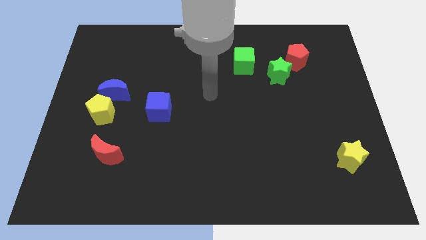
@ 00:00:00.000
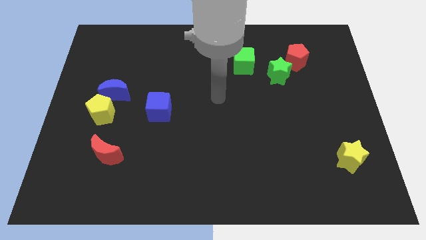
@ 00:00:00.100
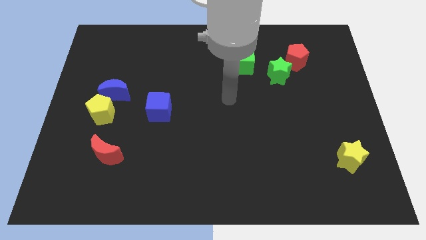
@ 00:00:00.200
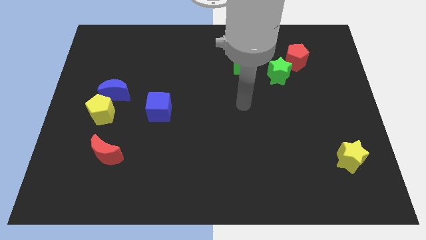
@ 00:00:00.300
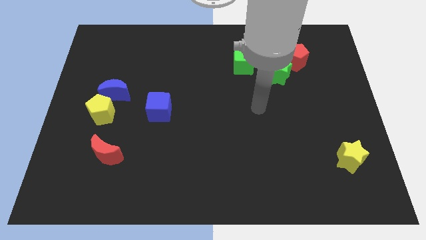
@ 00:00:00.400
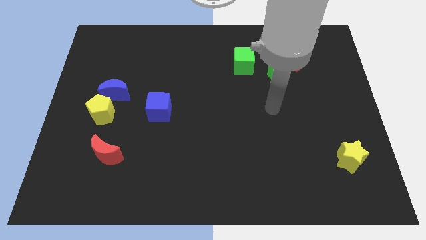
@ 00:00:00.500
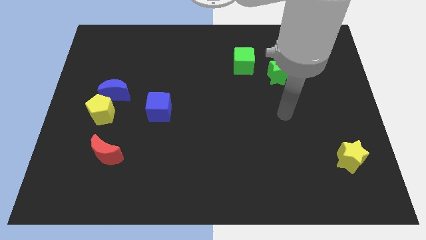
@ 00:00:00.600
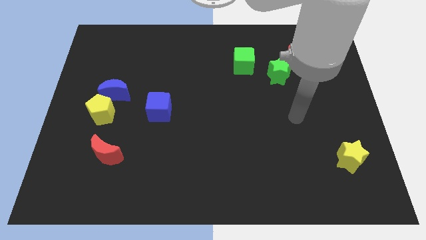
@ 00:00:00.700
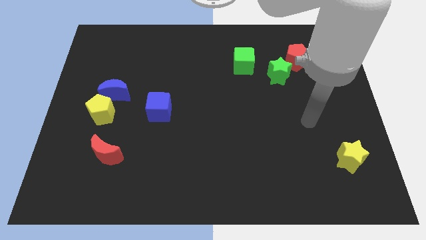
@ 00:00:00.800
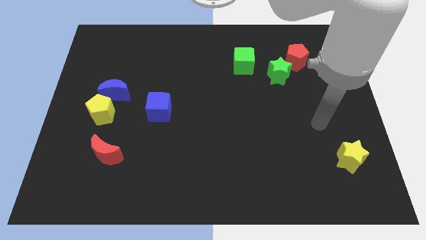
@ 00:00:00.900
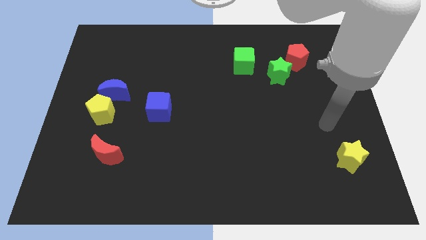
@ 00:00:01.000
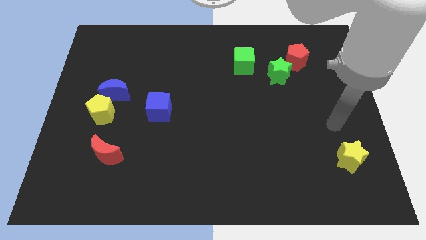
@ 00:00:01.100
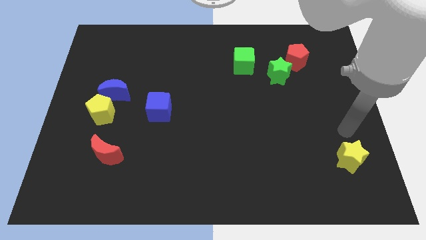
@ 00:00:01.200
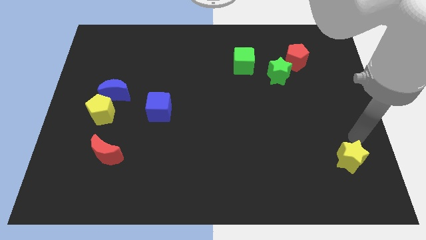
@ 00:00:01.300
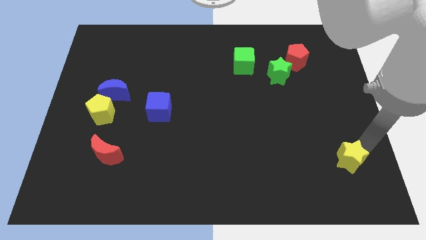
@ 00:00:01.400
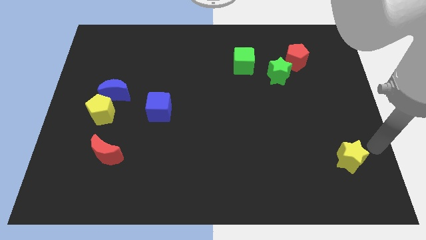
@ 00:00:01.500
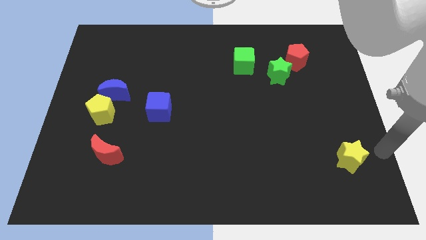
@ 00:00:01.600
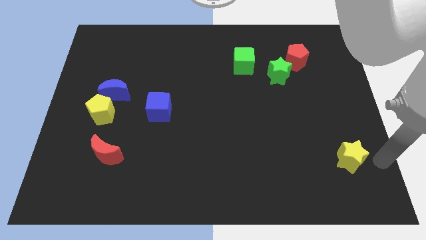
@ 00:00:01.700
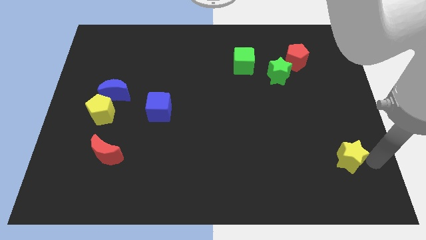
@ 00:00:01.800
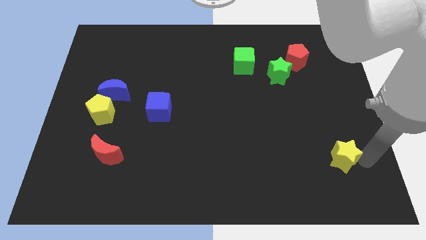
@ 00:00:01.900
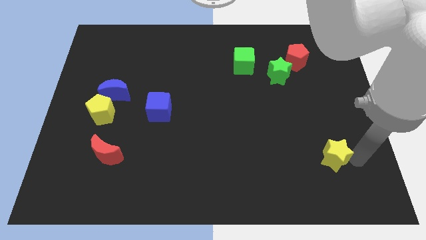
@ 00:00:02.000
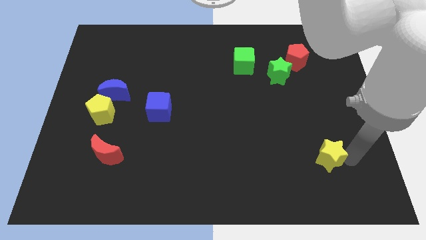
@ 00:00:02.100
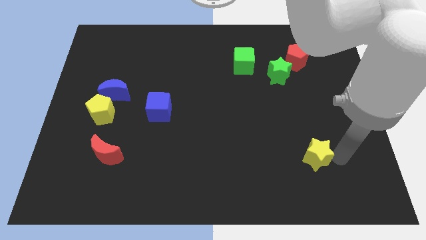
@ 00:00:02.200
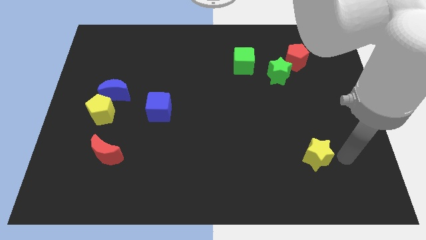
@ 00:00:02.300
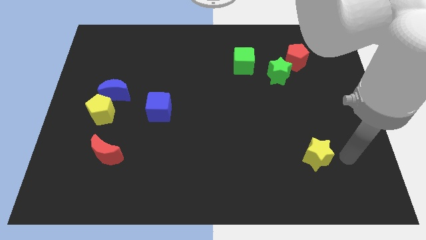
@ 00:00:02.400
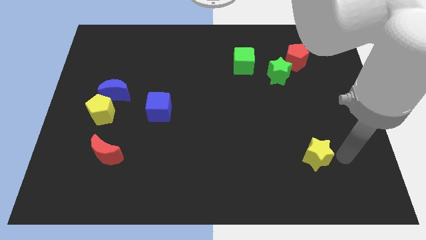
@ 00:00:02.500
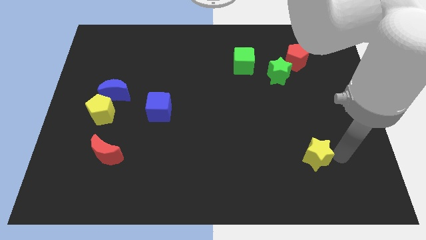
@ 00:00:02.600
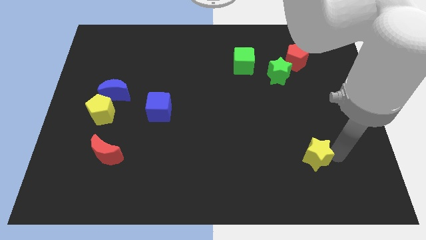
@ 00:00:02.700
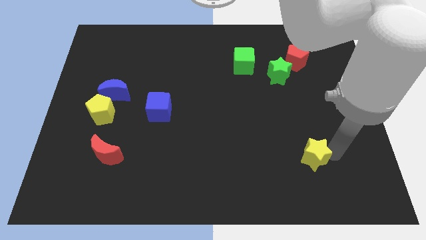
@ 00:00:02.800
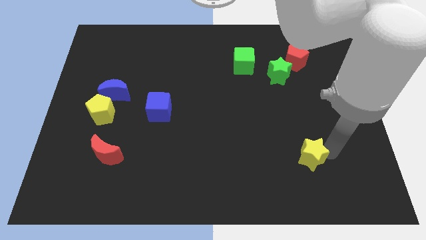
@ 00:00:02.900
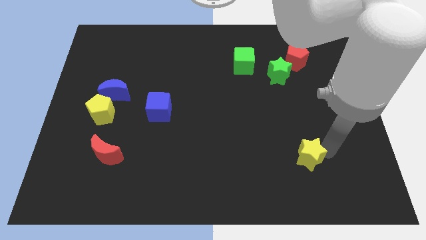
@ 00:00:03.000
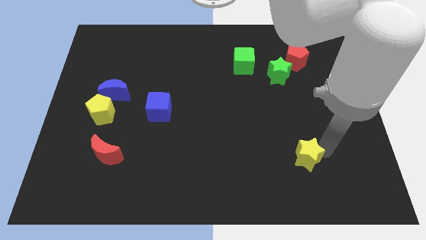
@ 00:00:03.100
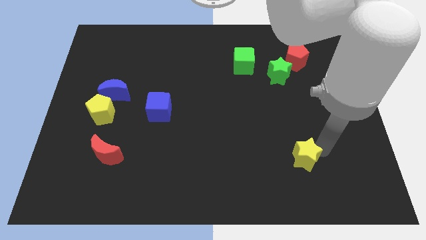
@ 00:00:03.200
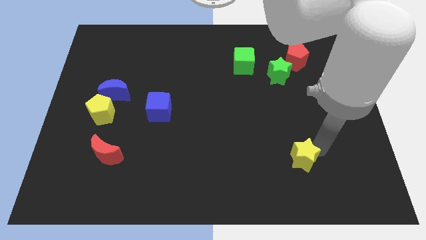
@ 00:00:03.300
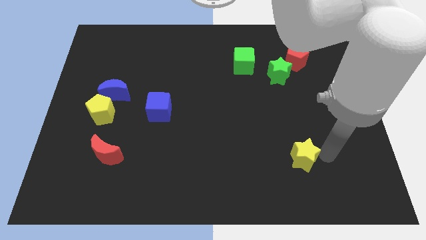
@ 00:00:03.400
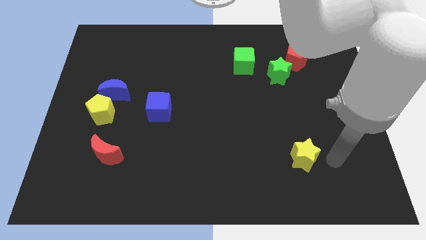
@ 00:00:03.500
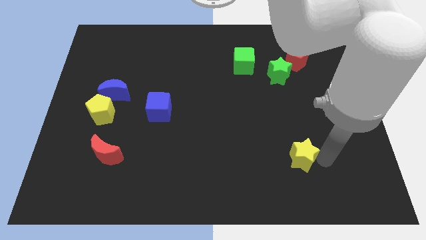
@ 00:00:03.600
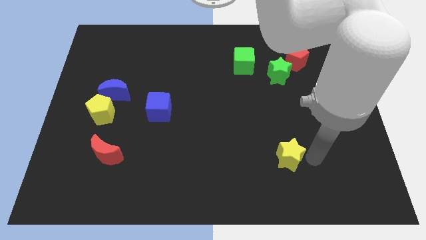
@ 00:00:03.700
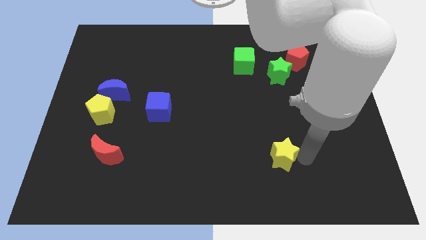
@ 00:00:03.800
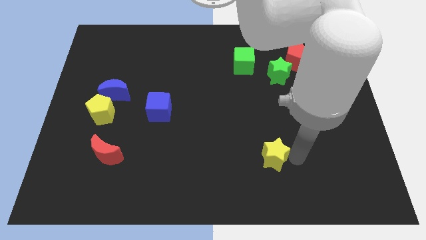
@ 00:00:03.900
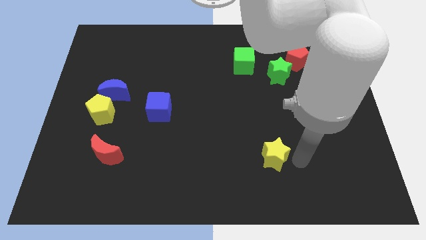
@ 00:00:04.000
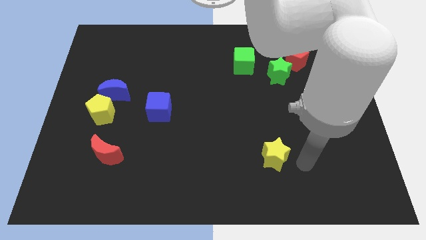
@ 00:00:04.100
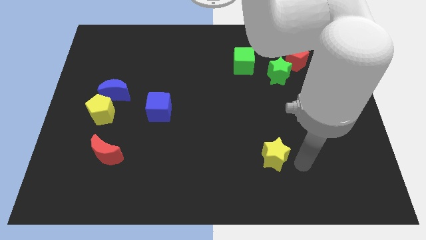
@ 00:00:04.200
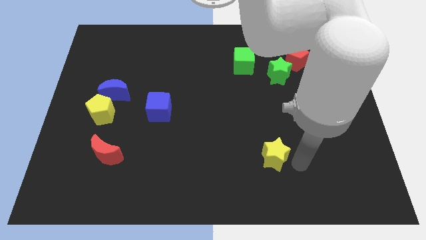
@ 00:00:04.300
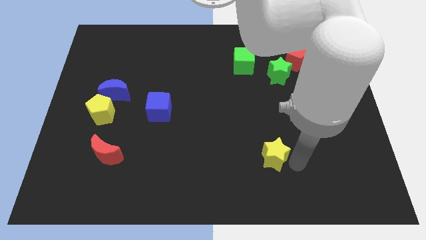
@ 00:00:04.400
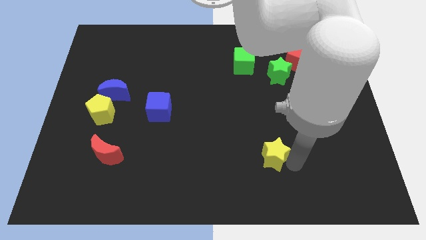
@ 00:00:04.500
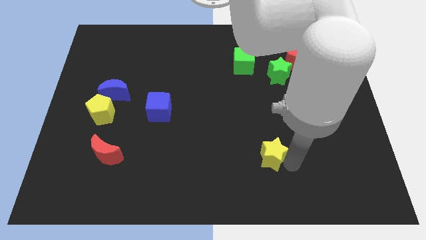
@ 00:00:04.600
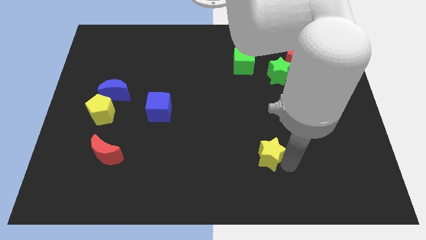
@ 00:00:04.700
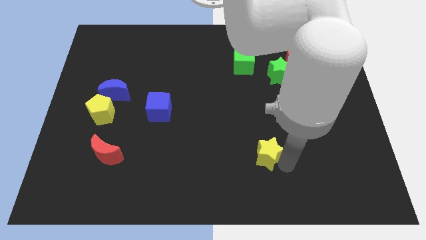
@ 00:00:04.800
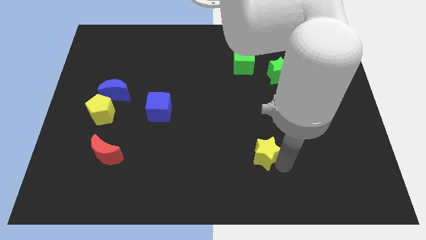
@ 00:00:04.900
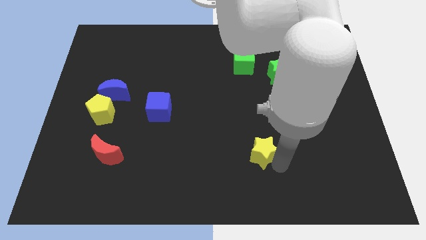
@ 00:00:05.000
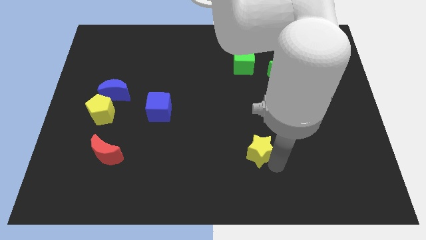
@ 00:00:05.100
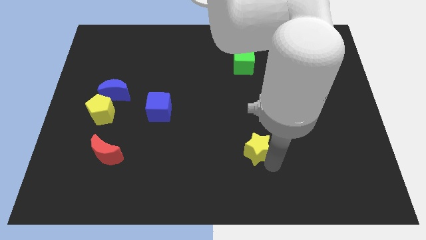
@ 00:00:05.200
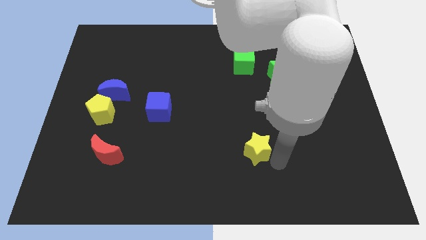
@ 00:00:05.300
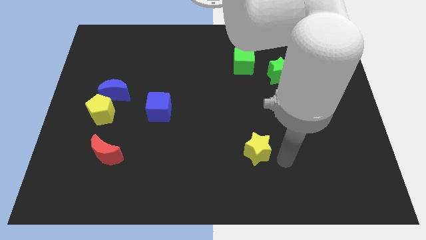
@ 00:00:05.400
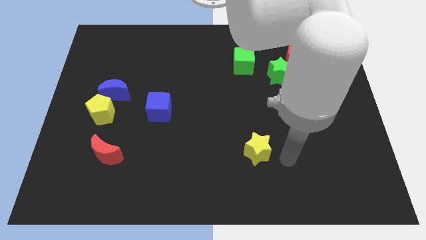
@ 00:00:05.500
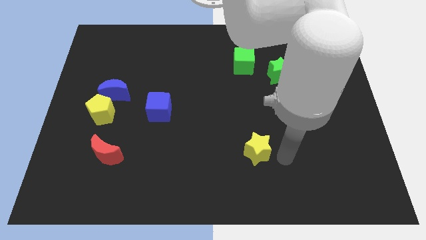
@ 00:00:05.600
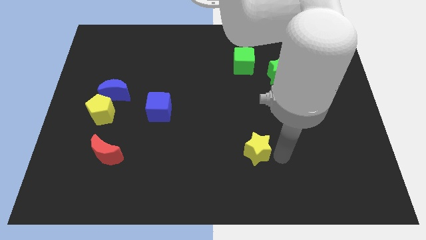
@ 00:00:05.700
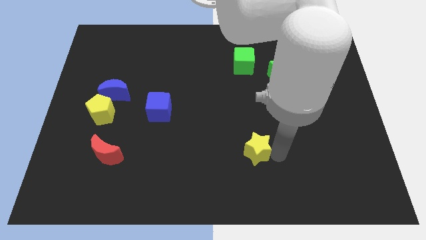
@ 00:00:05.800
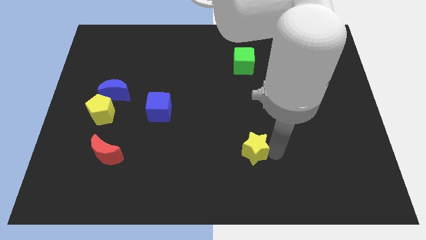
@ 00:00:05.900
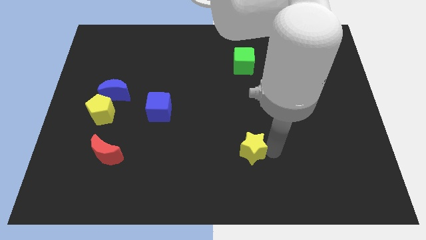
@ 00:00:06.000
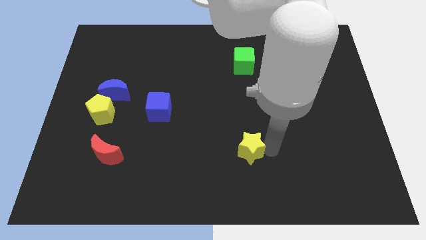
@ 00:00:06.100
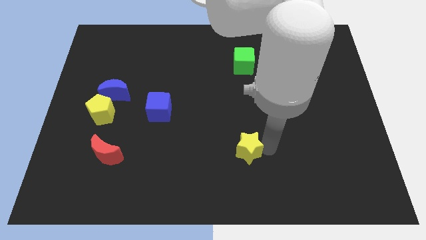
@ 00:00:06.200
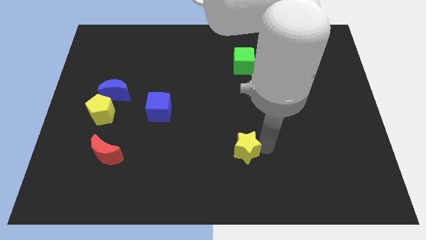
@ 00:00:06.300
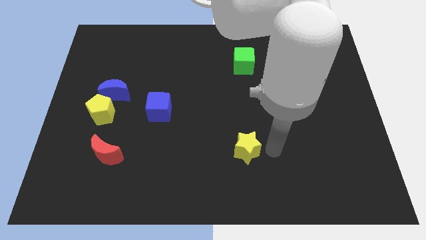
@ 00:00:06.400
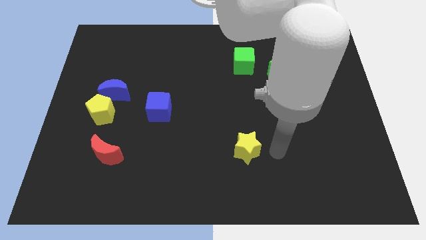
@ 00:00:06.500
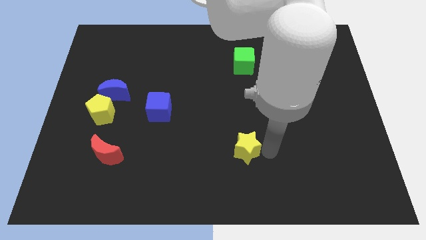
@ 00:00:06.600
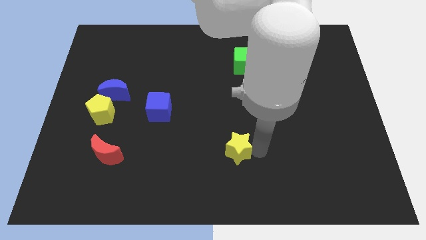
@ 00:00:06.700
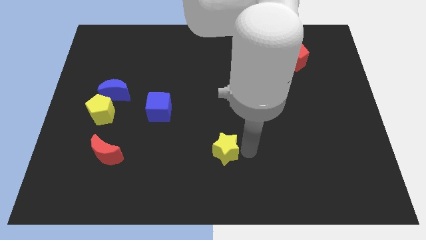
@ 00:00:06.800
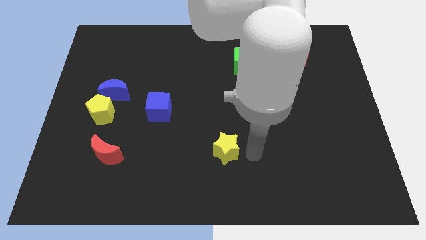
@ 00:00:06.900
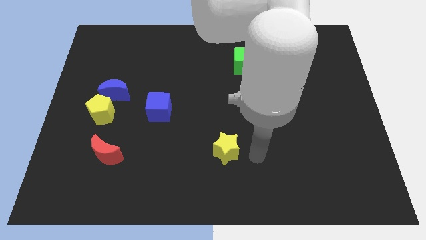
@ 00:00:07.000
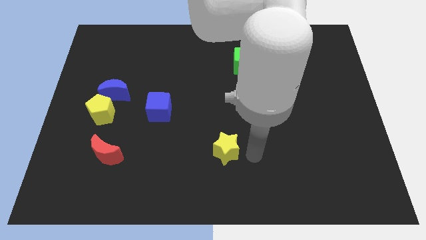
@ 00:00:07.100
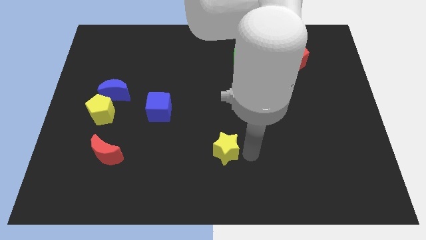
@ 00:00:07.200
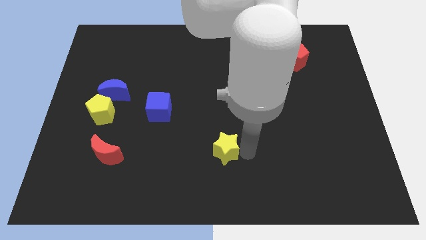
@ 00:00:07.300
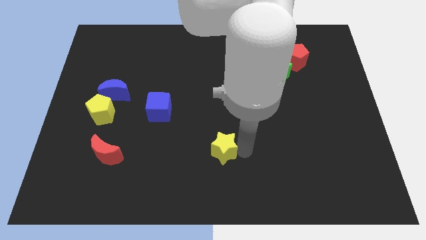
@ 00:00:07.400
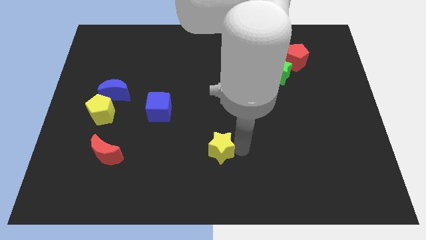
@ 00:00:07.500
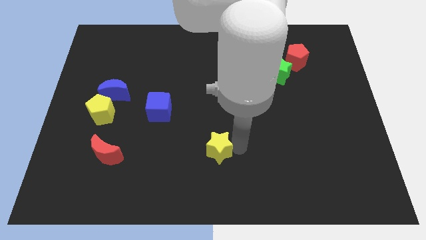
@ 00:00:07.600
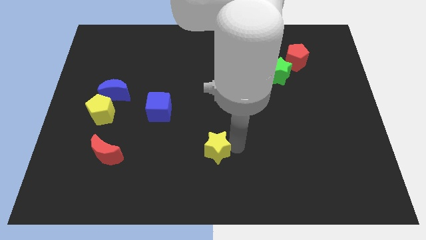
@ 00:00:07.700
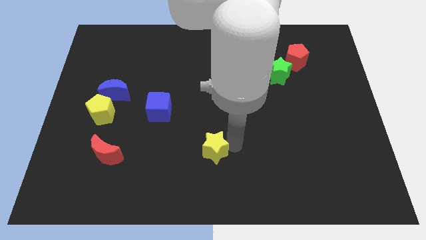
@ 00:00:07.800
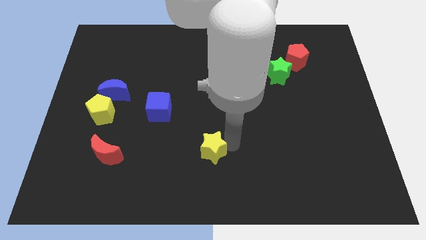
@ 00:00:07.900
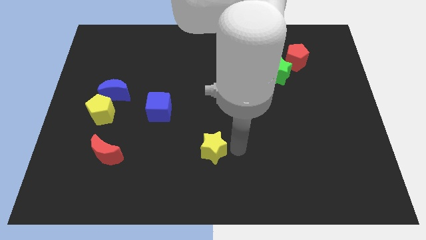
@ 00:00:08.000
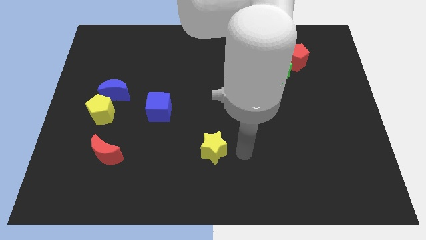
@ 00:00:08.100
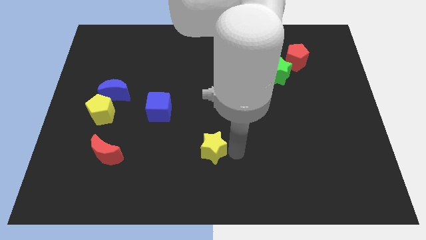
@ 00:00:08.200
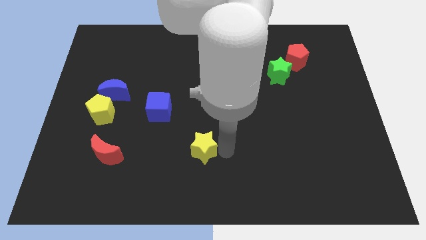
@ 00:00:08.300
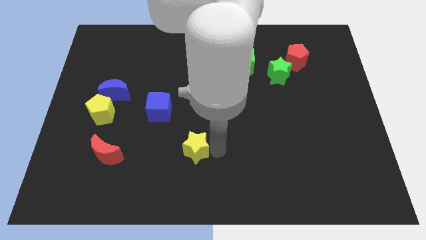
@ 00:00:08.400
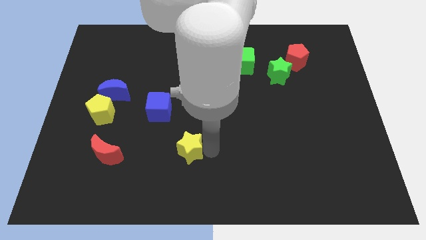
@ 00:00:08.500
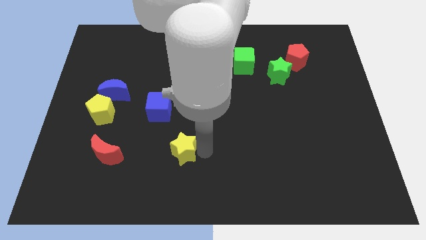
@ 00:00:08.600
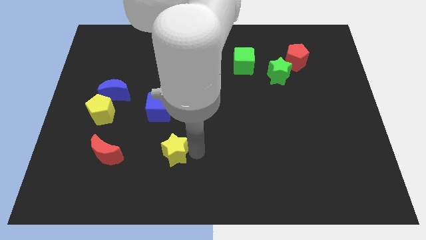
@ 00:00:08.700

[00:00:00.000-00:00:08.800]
slide the yellow star to the bottom side of the blue cube
